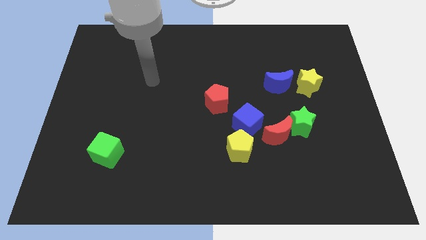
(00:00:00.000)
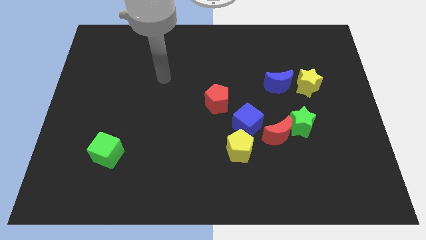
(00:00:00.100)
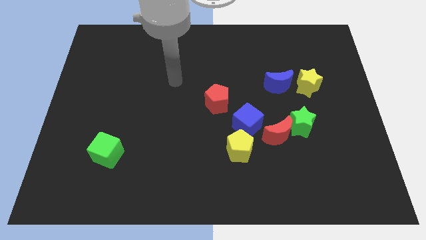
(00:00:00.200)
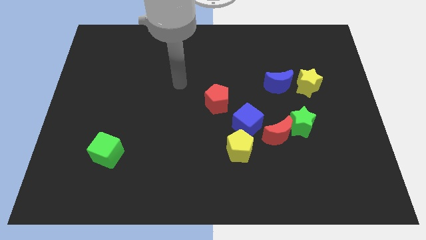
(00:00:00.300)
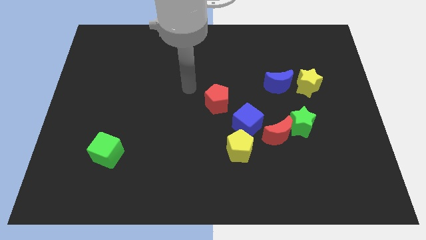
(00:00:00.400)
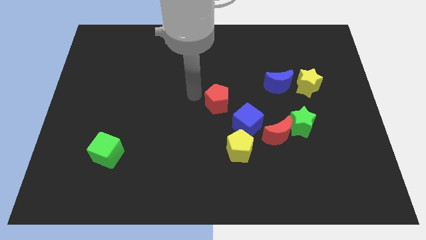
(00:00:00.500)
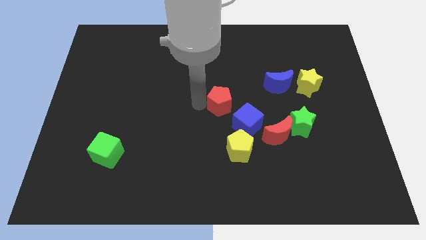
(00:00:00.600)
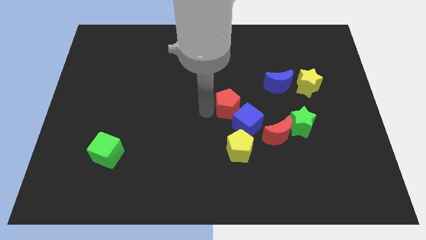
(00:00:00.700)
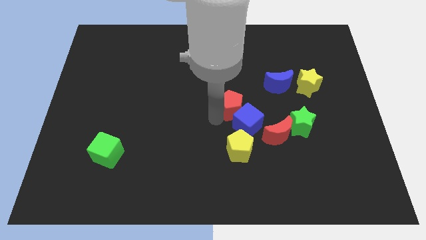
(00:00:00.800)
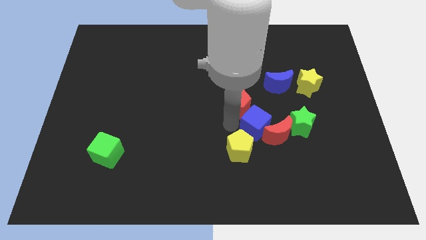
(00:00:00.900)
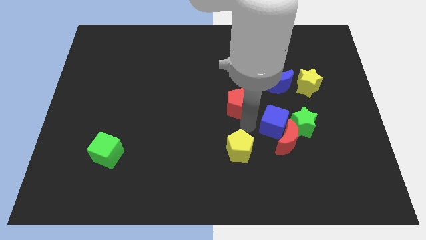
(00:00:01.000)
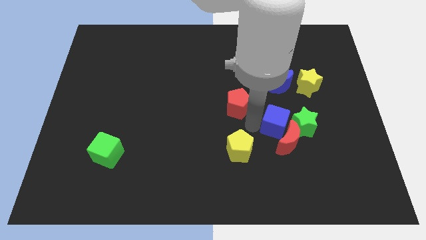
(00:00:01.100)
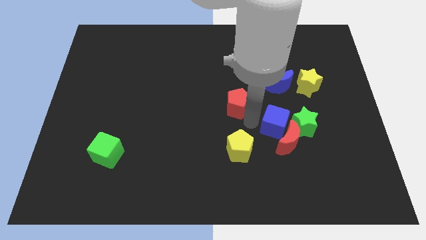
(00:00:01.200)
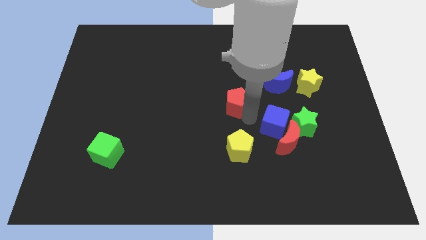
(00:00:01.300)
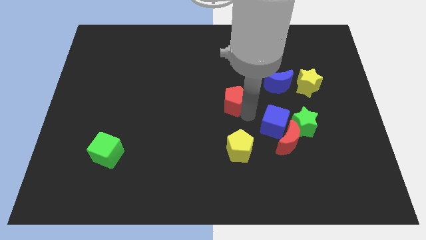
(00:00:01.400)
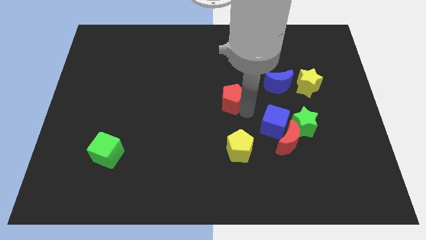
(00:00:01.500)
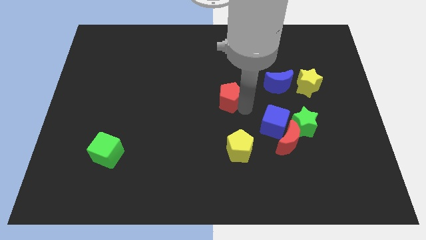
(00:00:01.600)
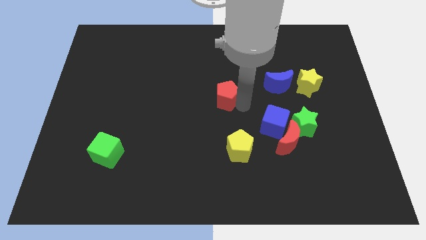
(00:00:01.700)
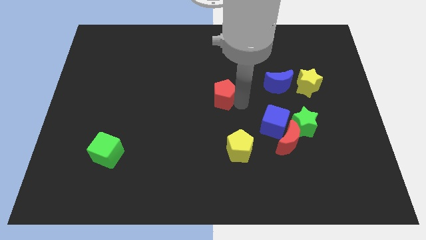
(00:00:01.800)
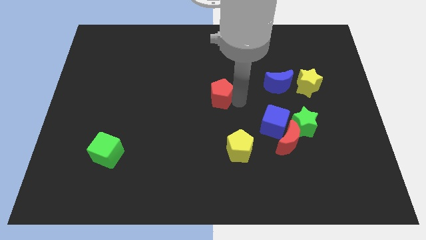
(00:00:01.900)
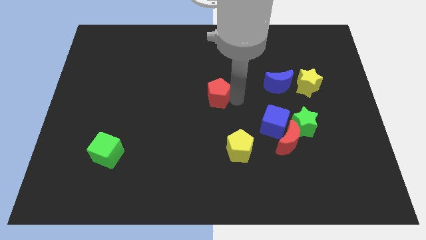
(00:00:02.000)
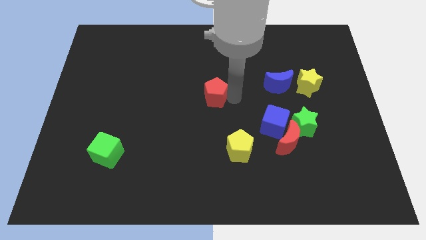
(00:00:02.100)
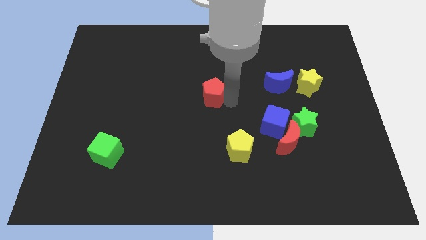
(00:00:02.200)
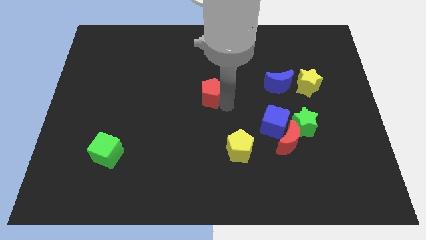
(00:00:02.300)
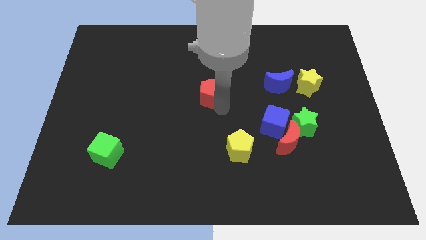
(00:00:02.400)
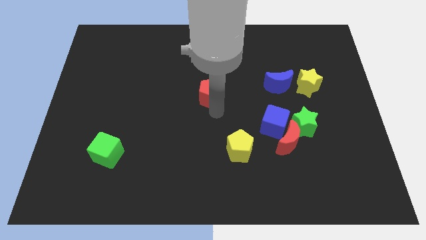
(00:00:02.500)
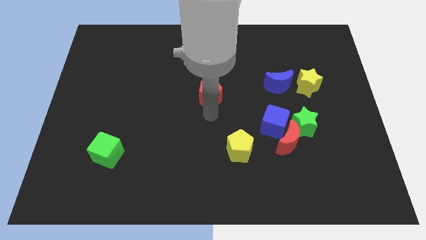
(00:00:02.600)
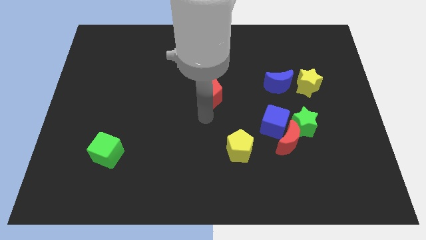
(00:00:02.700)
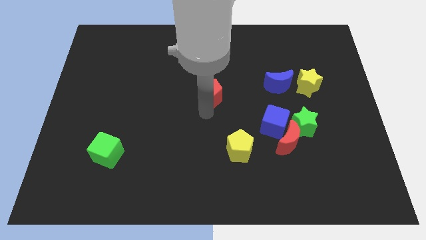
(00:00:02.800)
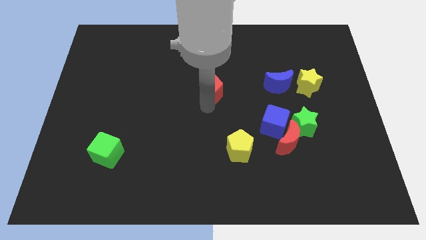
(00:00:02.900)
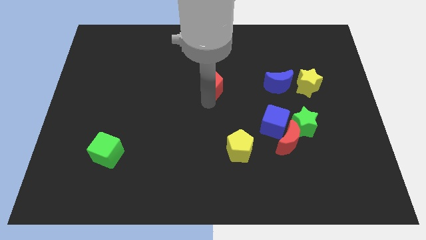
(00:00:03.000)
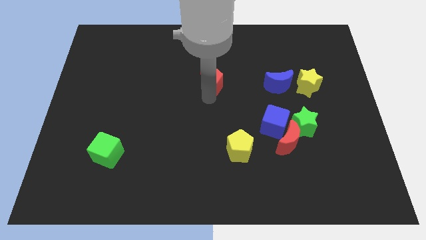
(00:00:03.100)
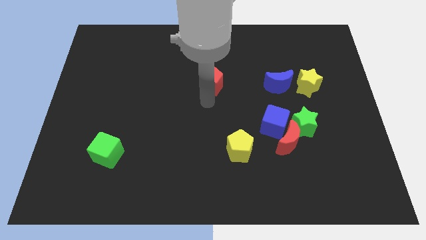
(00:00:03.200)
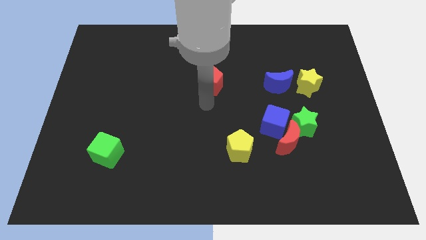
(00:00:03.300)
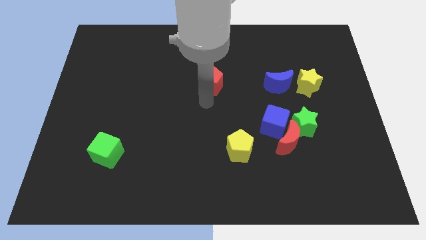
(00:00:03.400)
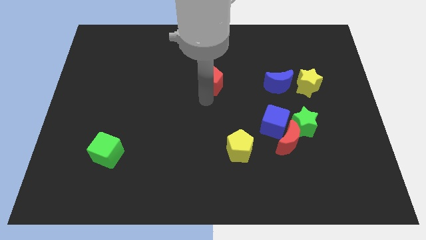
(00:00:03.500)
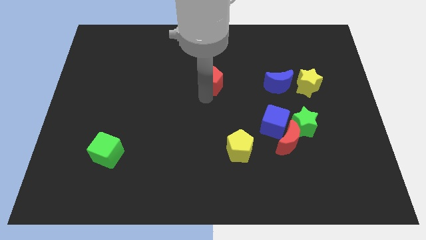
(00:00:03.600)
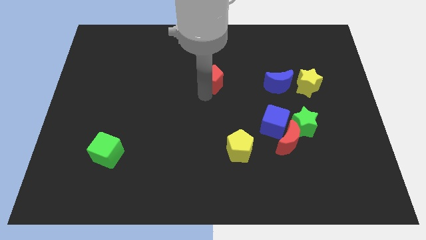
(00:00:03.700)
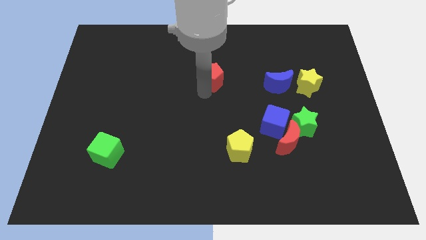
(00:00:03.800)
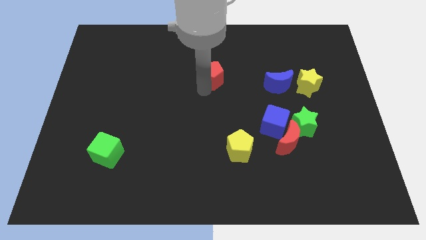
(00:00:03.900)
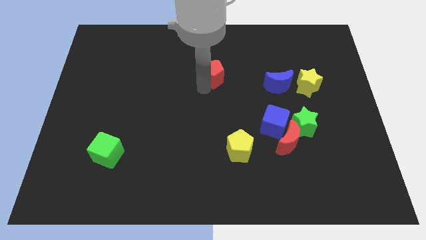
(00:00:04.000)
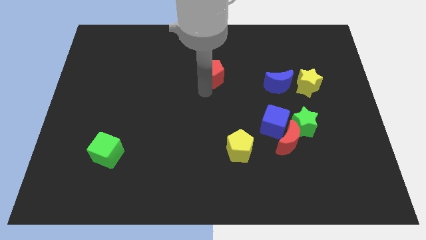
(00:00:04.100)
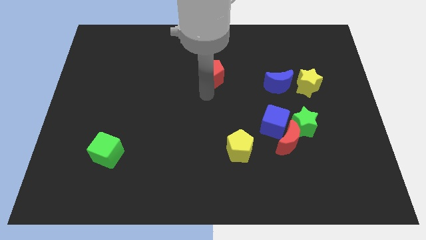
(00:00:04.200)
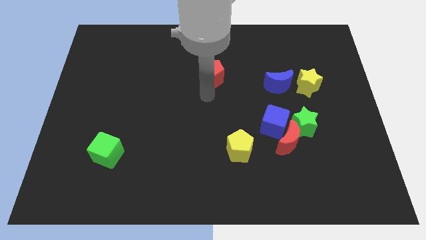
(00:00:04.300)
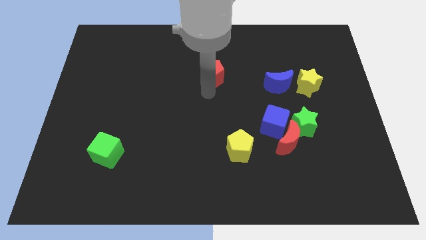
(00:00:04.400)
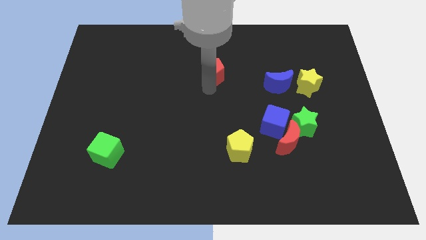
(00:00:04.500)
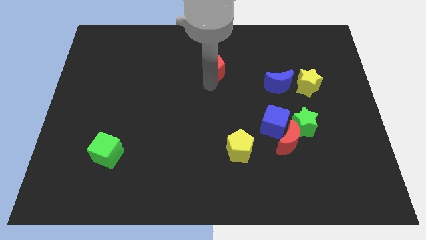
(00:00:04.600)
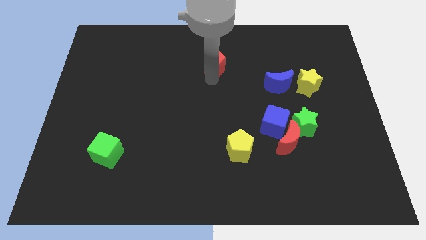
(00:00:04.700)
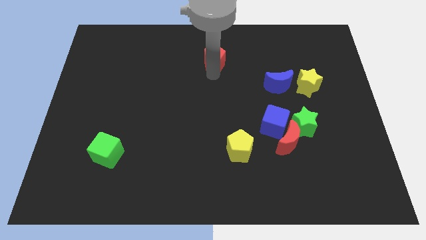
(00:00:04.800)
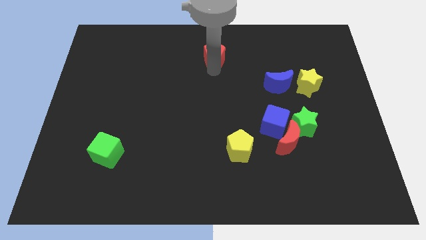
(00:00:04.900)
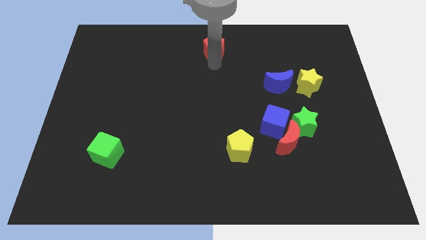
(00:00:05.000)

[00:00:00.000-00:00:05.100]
move the red pentagon to the towards your base

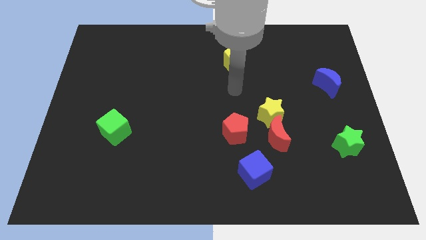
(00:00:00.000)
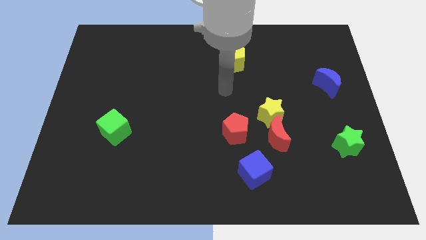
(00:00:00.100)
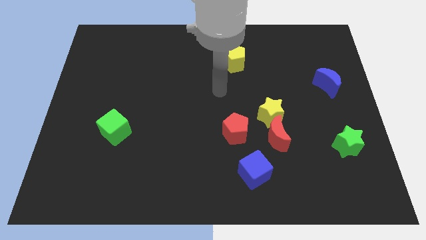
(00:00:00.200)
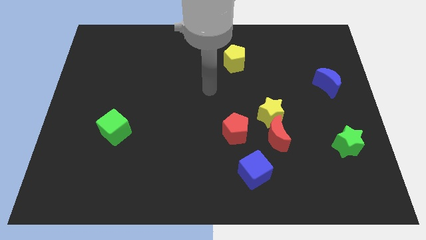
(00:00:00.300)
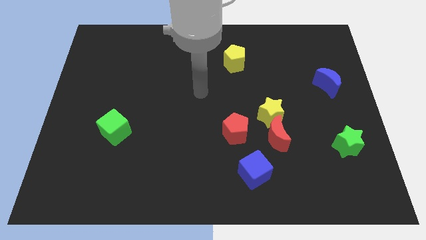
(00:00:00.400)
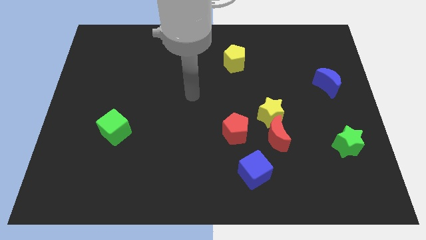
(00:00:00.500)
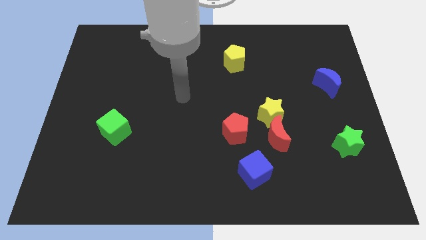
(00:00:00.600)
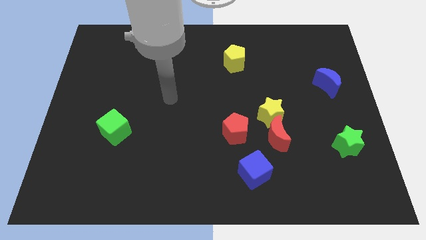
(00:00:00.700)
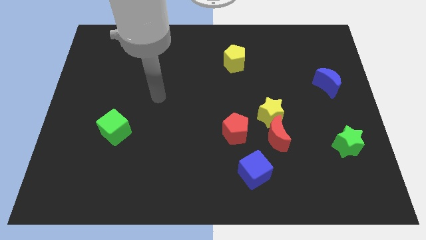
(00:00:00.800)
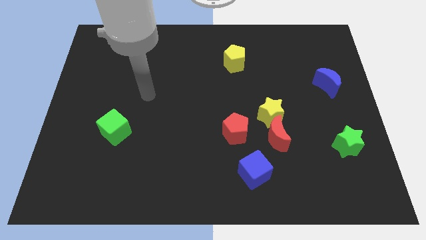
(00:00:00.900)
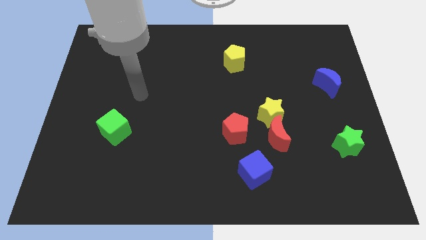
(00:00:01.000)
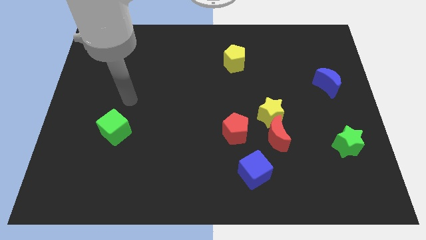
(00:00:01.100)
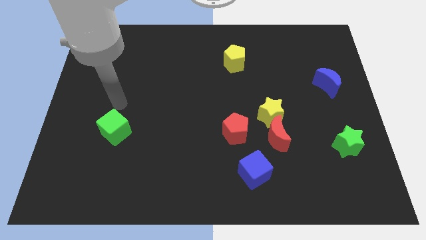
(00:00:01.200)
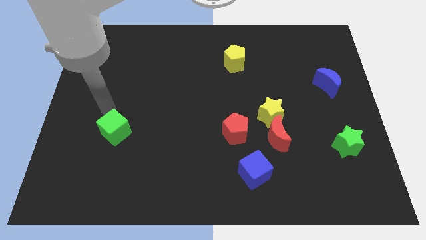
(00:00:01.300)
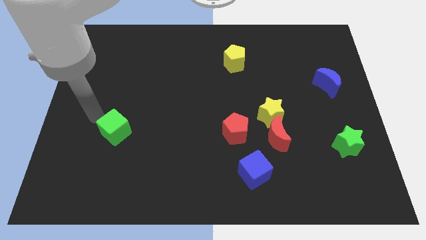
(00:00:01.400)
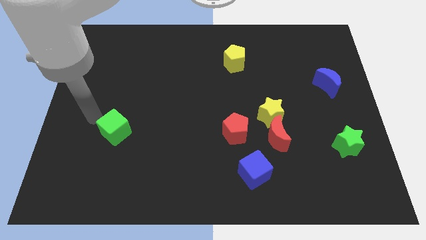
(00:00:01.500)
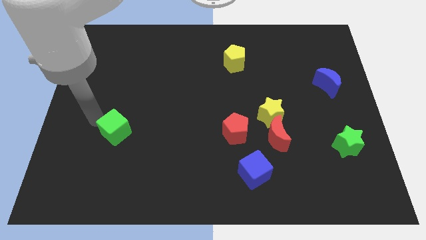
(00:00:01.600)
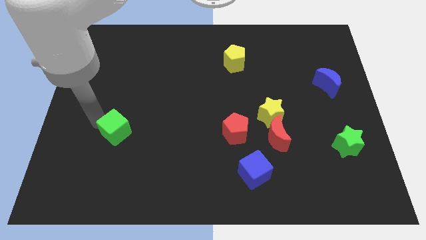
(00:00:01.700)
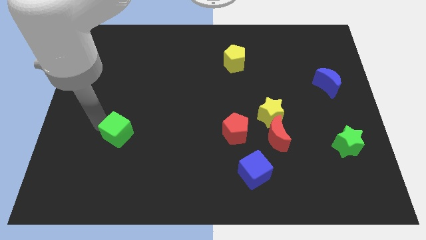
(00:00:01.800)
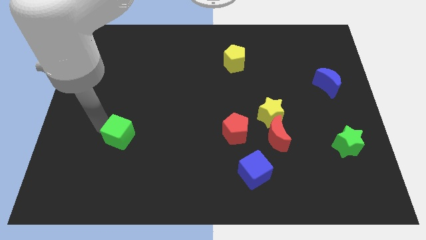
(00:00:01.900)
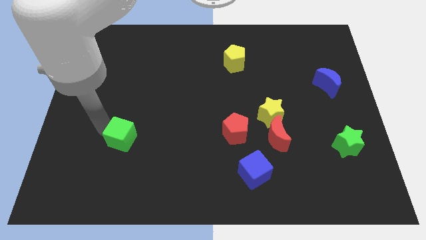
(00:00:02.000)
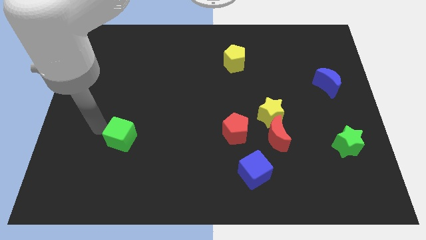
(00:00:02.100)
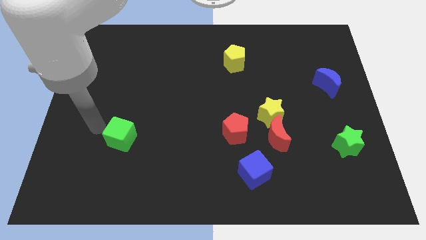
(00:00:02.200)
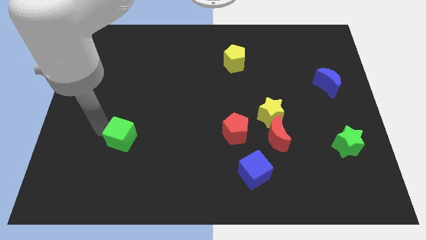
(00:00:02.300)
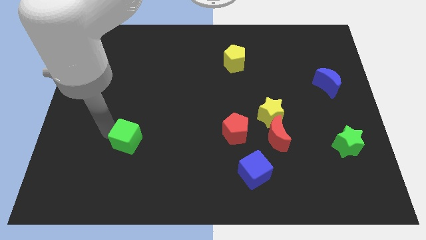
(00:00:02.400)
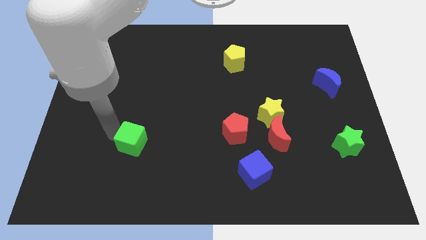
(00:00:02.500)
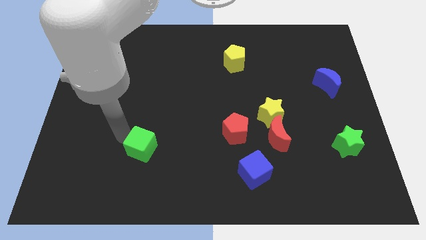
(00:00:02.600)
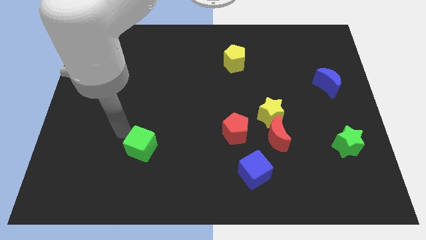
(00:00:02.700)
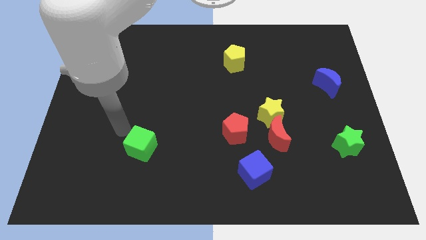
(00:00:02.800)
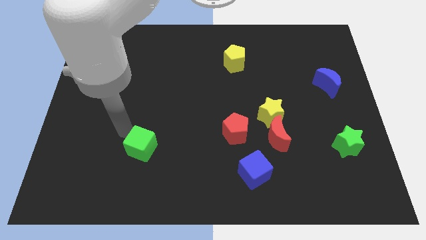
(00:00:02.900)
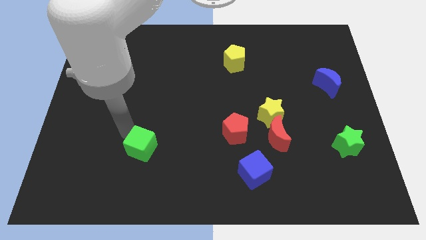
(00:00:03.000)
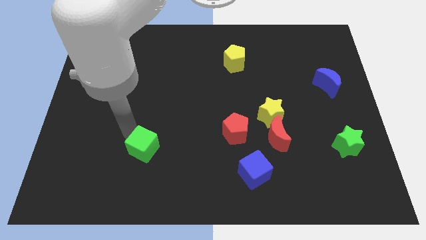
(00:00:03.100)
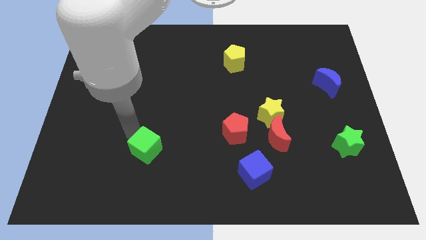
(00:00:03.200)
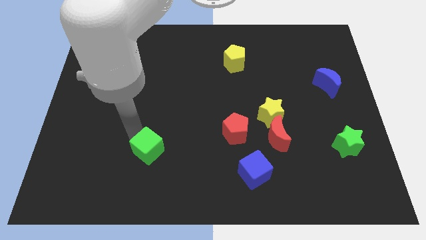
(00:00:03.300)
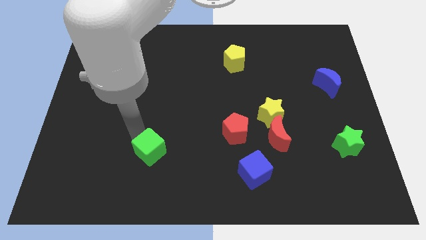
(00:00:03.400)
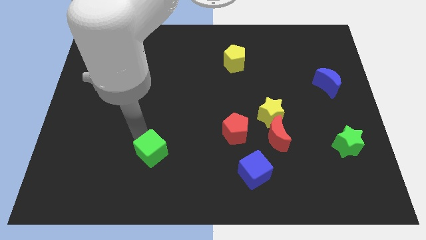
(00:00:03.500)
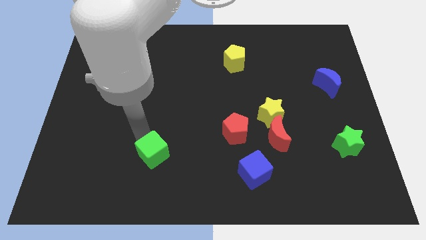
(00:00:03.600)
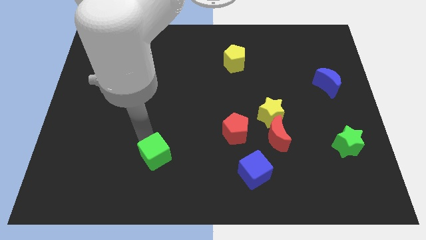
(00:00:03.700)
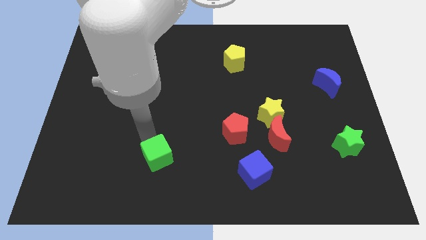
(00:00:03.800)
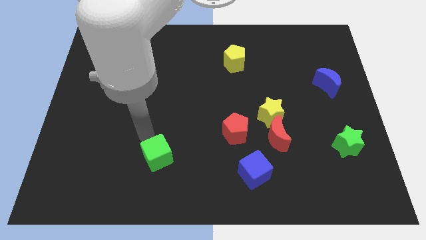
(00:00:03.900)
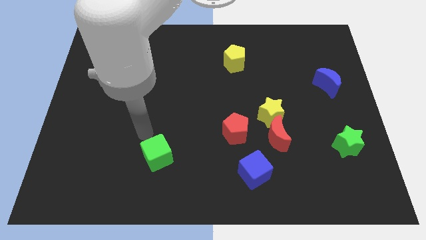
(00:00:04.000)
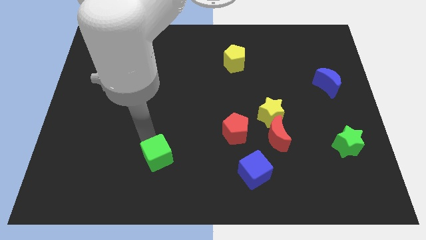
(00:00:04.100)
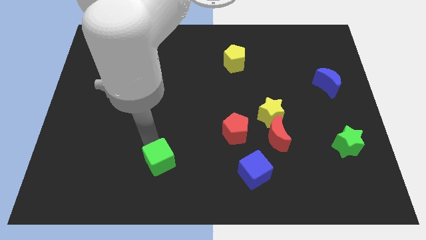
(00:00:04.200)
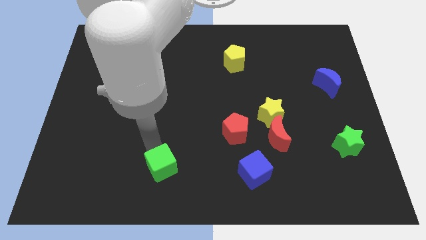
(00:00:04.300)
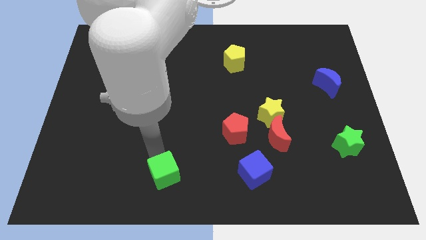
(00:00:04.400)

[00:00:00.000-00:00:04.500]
push the green cube to the bottom
